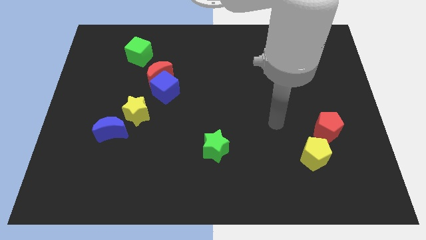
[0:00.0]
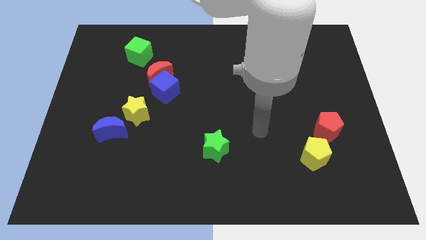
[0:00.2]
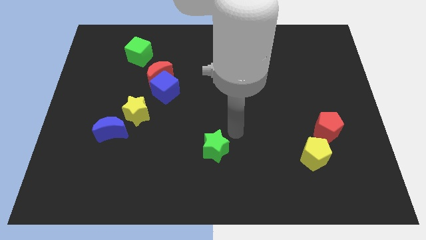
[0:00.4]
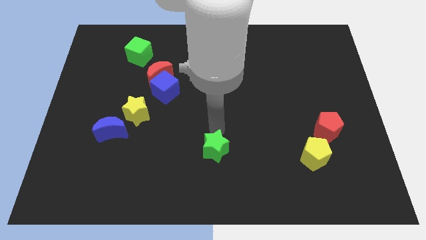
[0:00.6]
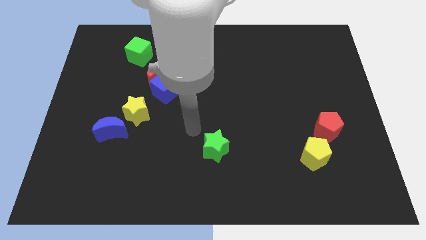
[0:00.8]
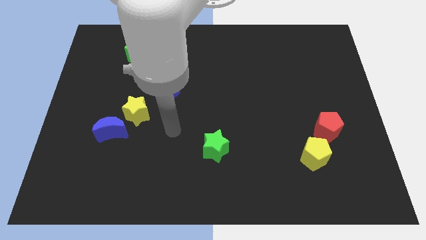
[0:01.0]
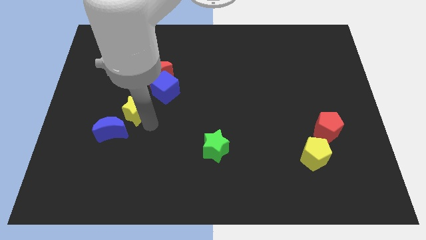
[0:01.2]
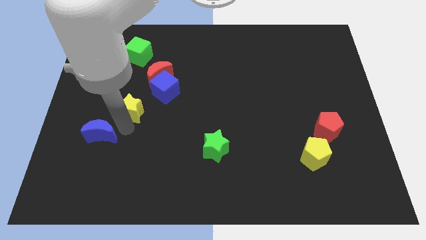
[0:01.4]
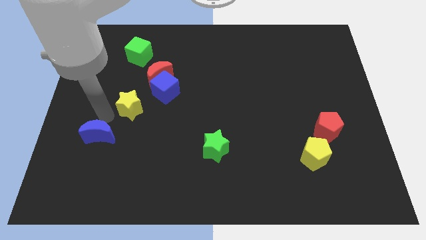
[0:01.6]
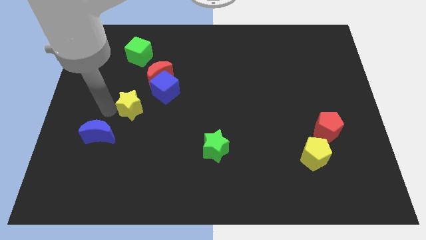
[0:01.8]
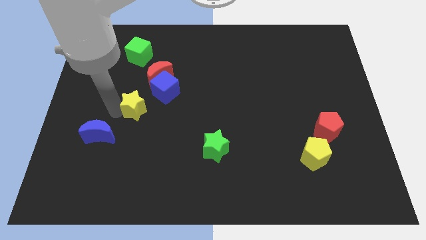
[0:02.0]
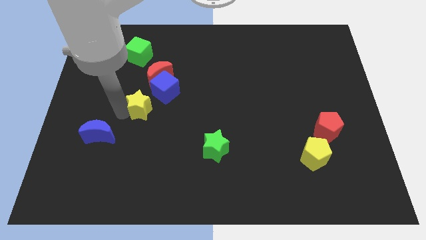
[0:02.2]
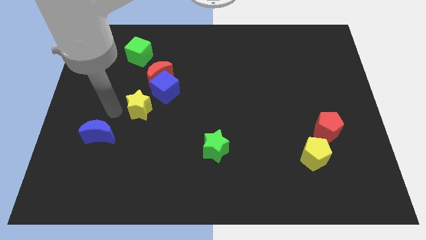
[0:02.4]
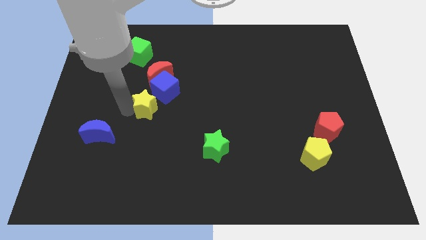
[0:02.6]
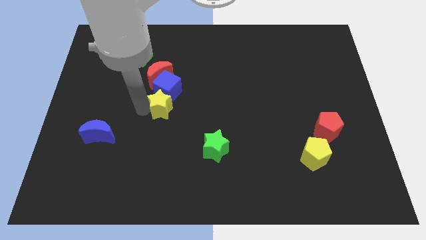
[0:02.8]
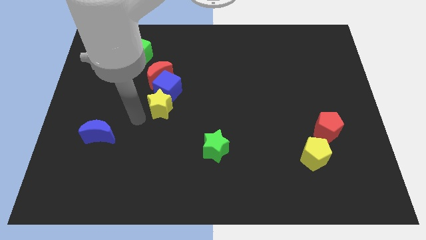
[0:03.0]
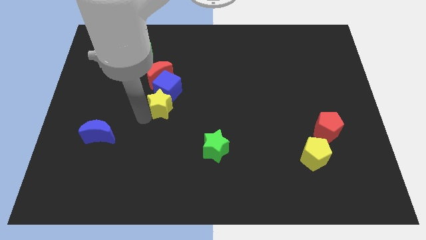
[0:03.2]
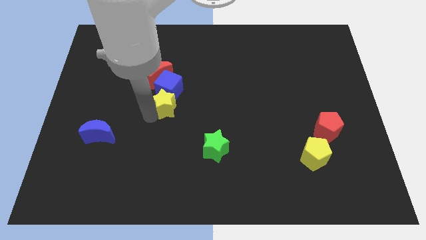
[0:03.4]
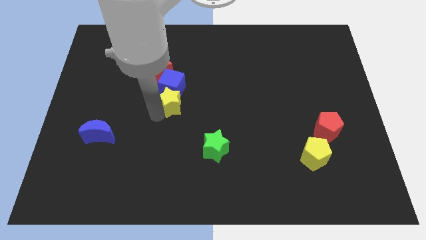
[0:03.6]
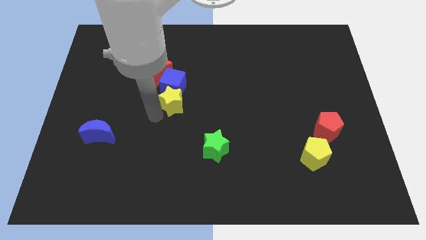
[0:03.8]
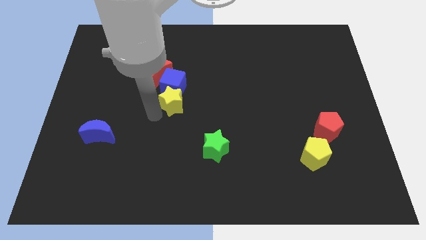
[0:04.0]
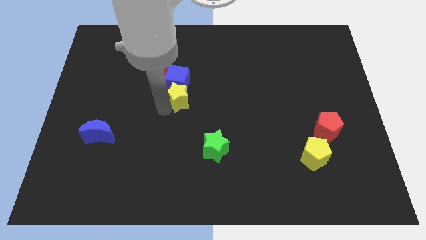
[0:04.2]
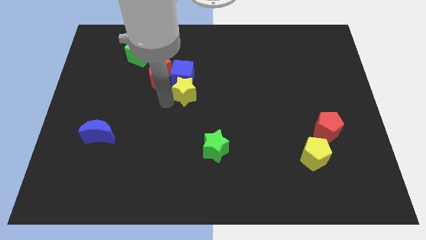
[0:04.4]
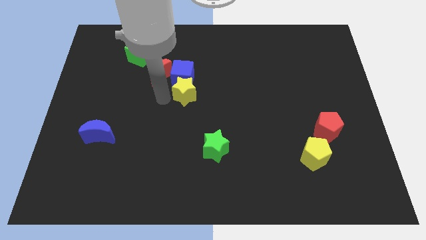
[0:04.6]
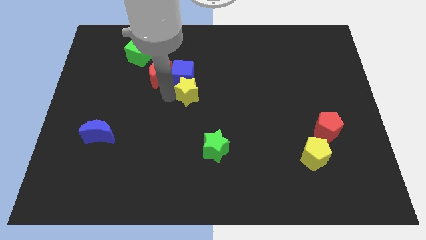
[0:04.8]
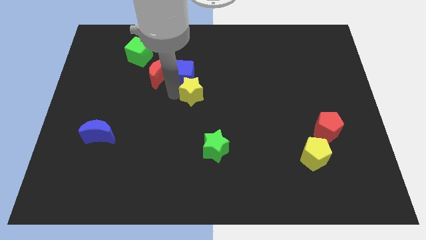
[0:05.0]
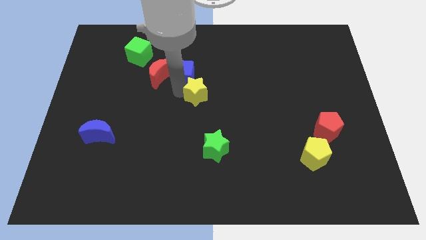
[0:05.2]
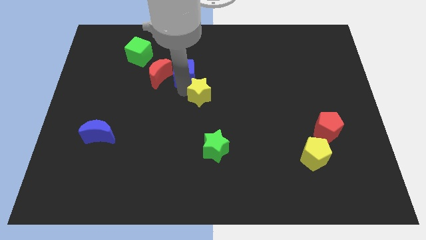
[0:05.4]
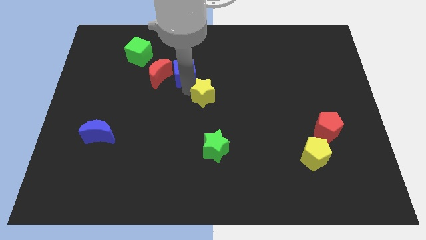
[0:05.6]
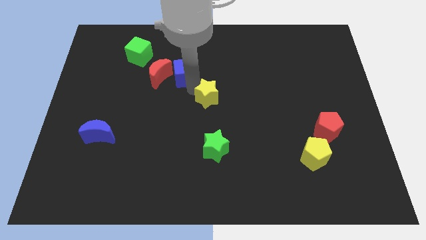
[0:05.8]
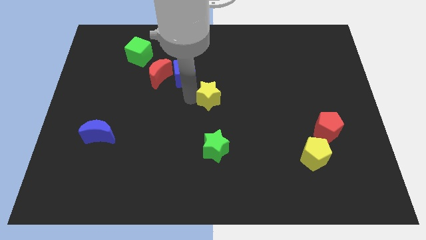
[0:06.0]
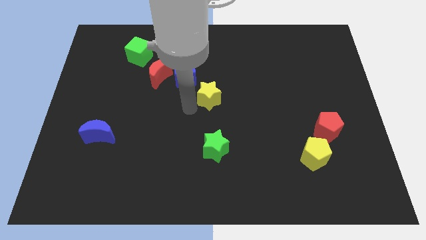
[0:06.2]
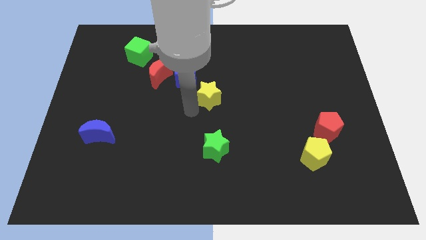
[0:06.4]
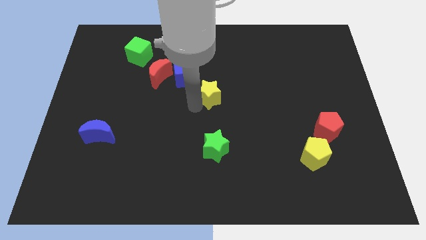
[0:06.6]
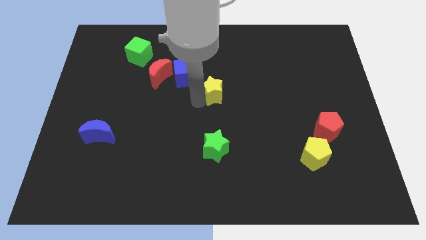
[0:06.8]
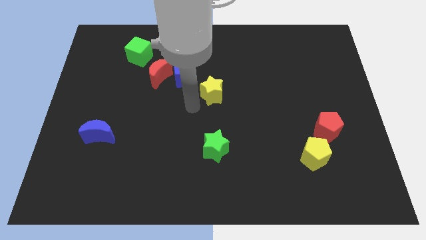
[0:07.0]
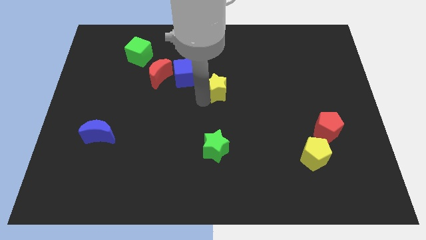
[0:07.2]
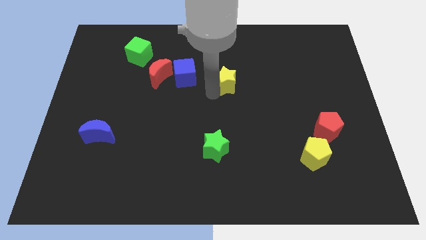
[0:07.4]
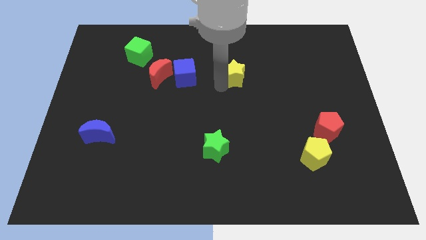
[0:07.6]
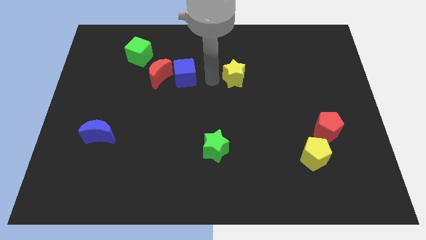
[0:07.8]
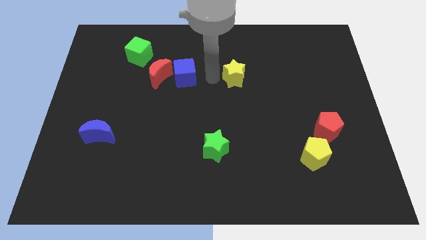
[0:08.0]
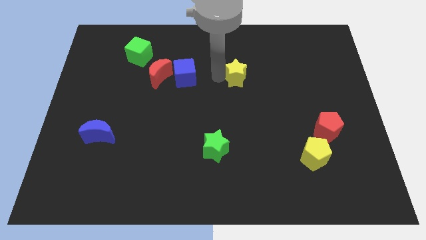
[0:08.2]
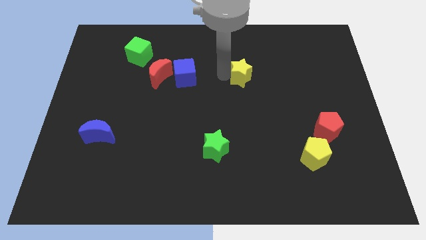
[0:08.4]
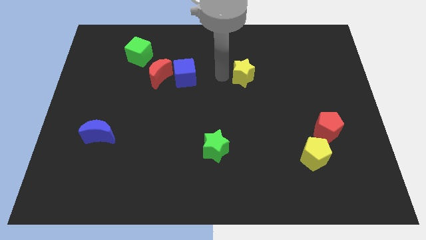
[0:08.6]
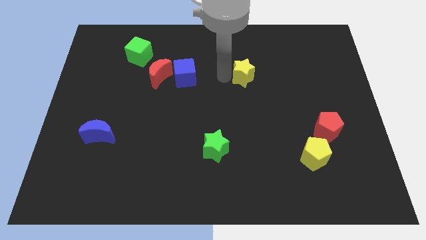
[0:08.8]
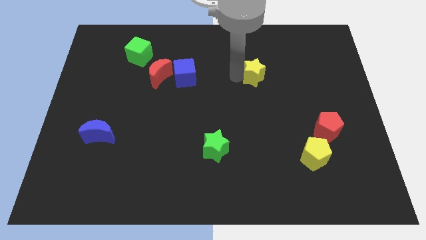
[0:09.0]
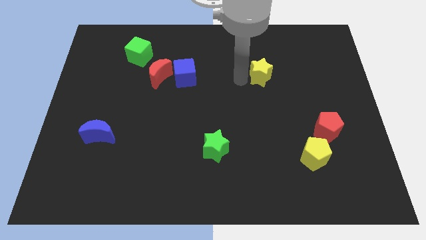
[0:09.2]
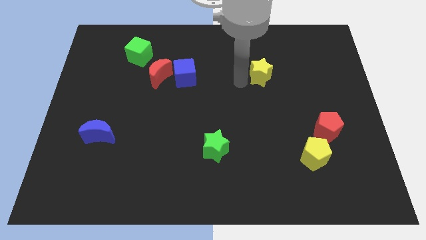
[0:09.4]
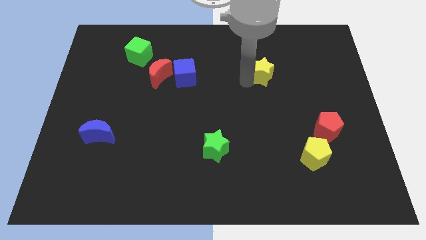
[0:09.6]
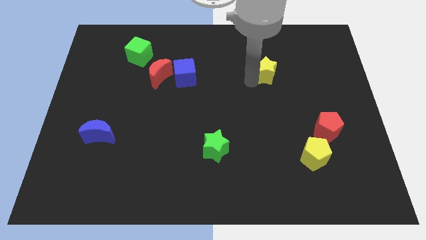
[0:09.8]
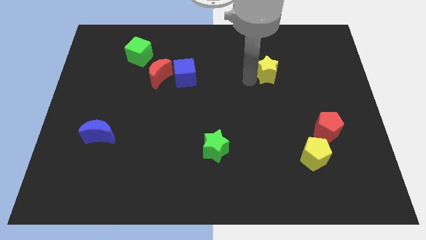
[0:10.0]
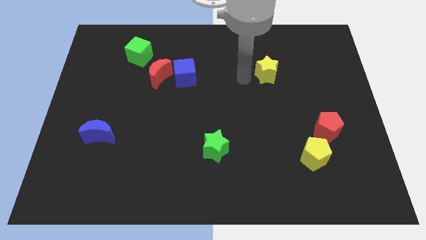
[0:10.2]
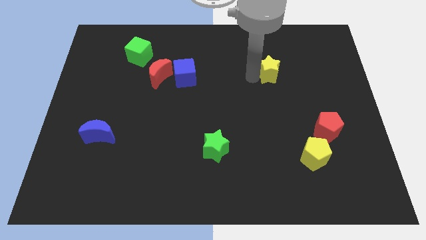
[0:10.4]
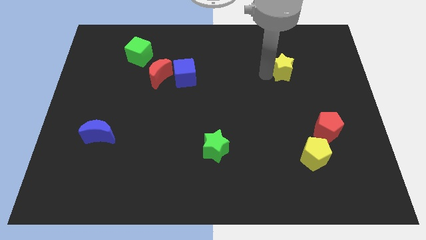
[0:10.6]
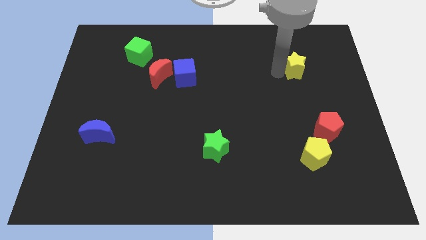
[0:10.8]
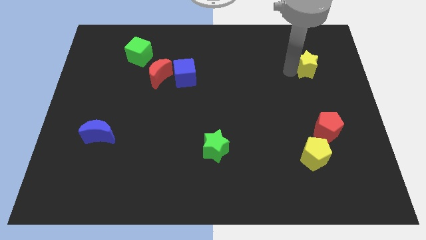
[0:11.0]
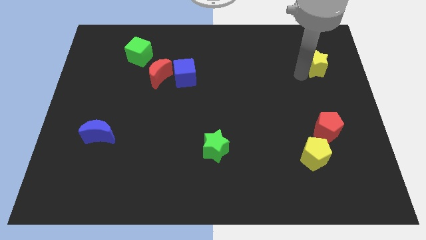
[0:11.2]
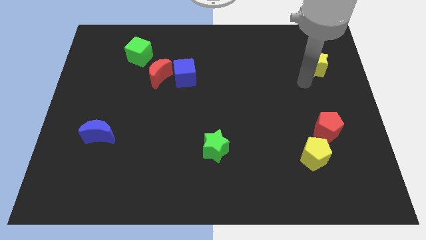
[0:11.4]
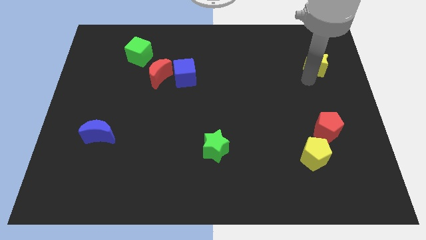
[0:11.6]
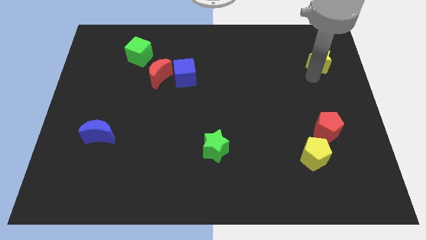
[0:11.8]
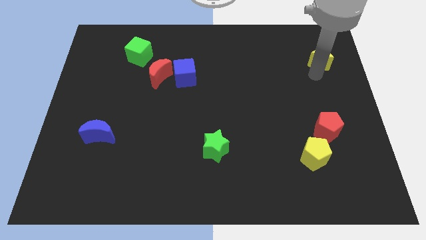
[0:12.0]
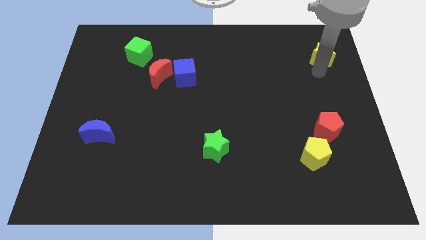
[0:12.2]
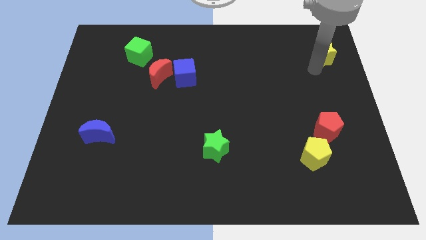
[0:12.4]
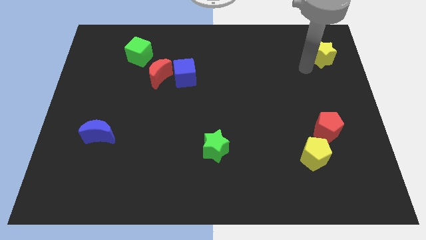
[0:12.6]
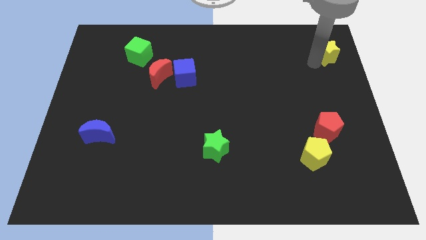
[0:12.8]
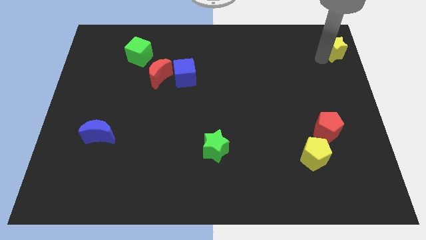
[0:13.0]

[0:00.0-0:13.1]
slide the yellow star to the top right of the board

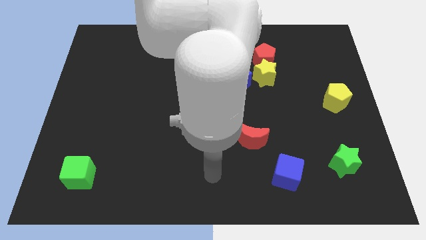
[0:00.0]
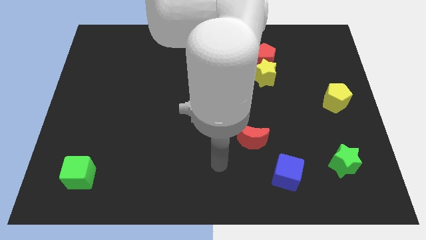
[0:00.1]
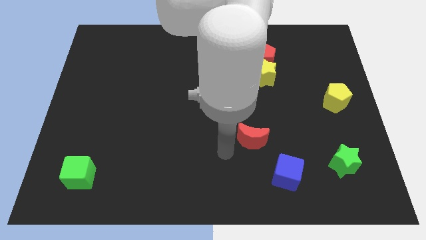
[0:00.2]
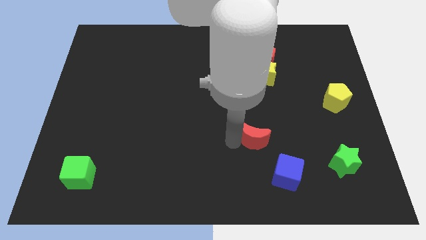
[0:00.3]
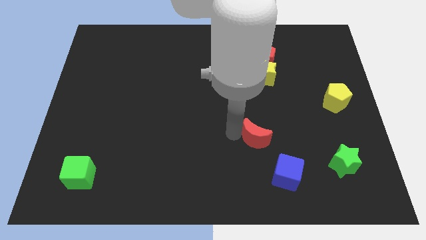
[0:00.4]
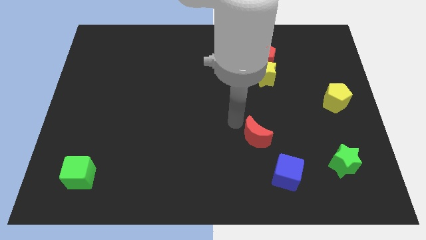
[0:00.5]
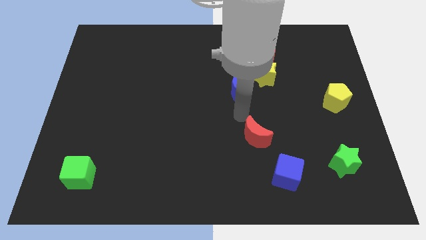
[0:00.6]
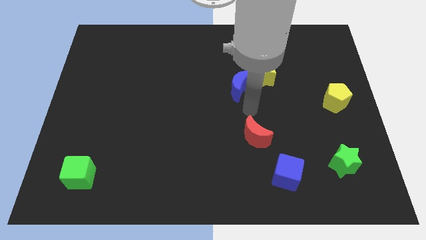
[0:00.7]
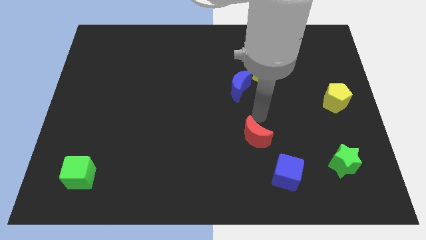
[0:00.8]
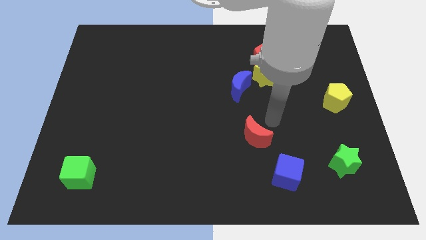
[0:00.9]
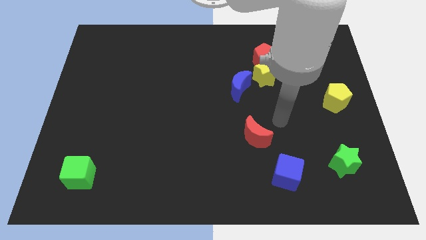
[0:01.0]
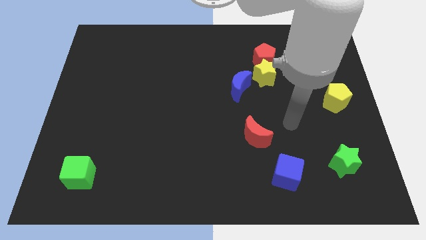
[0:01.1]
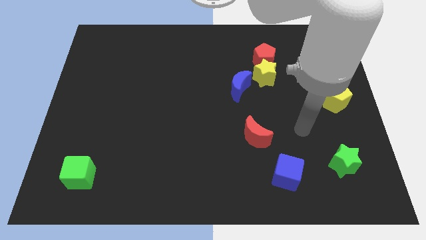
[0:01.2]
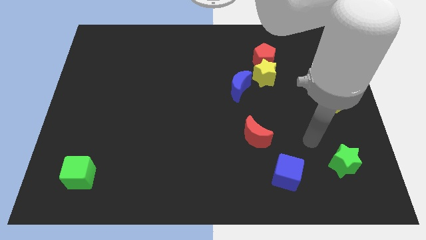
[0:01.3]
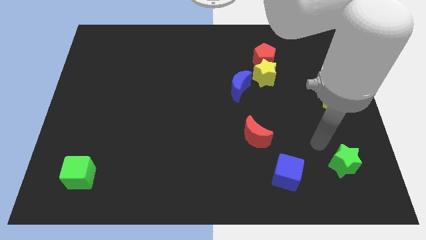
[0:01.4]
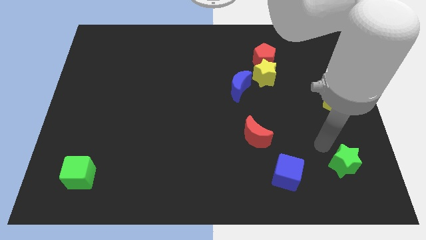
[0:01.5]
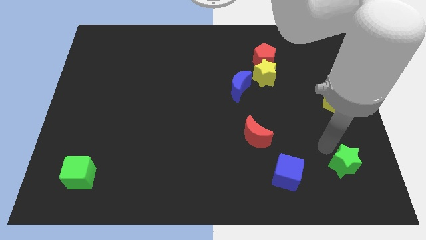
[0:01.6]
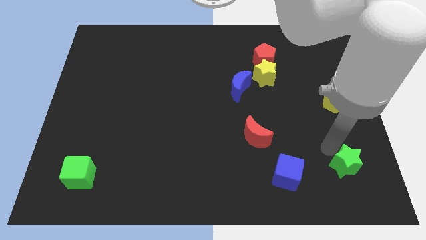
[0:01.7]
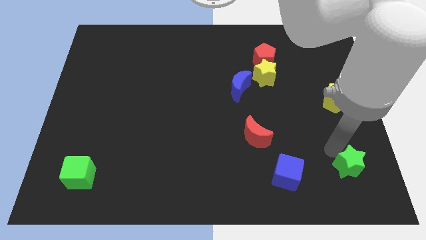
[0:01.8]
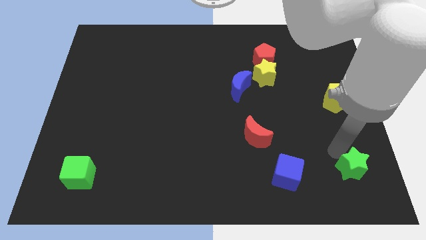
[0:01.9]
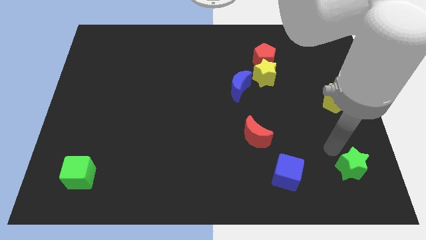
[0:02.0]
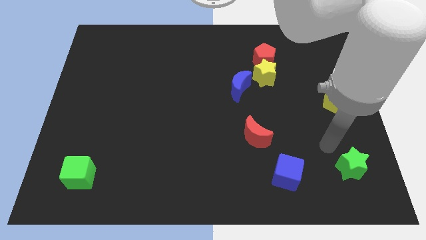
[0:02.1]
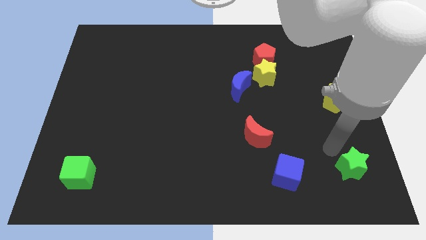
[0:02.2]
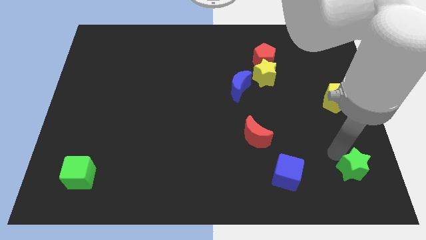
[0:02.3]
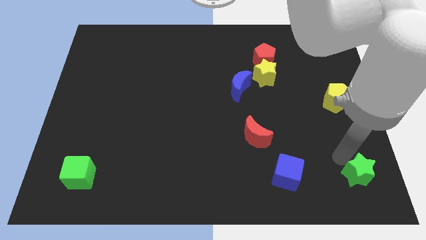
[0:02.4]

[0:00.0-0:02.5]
slide the green star to the bottom right of the board
